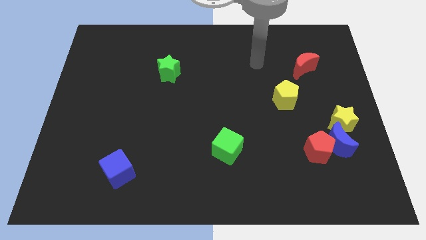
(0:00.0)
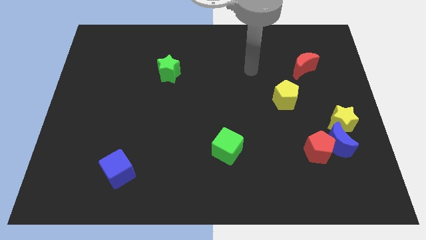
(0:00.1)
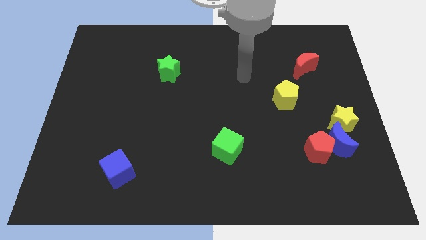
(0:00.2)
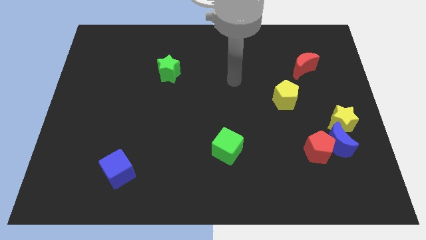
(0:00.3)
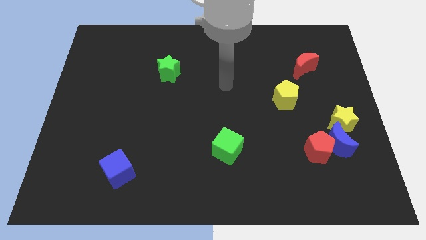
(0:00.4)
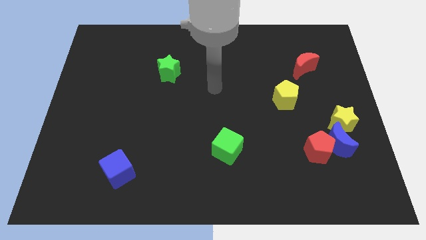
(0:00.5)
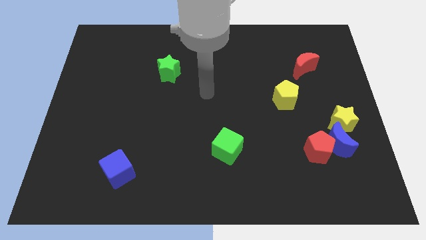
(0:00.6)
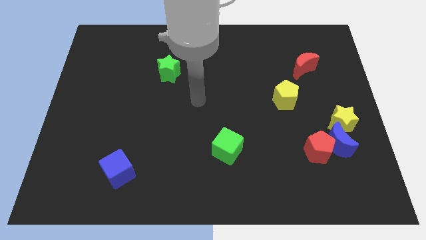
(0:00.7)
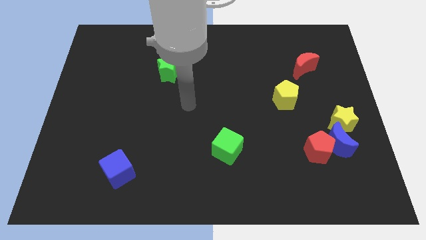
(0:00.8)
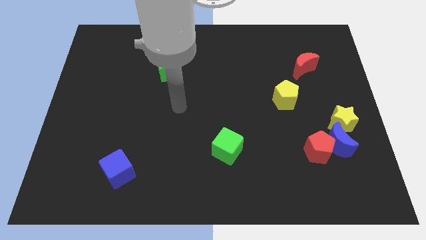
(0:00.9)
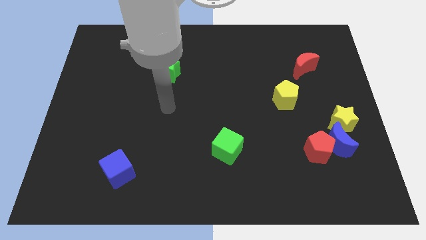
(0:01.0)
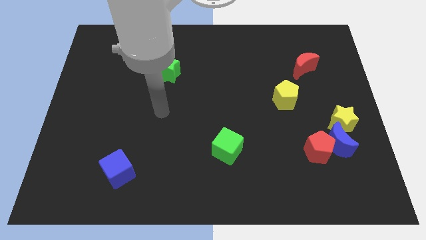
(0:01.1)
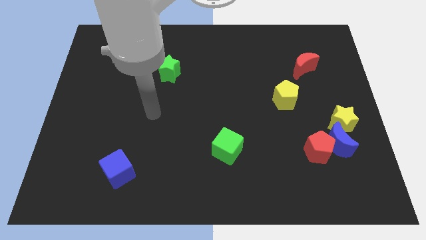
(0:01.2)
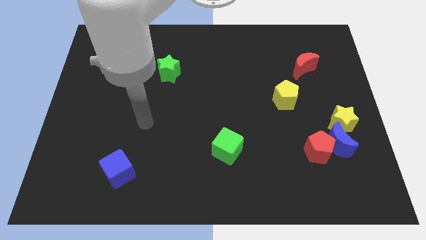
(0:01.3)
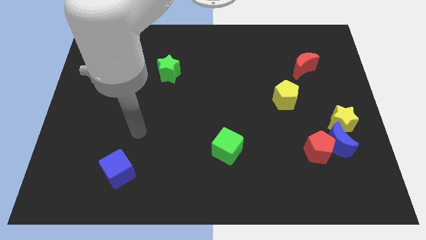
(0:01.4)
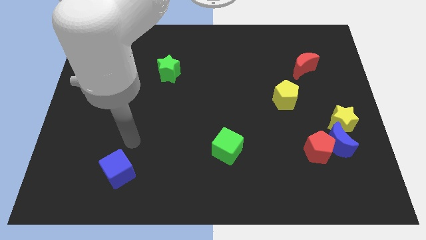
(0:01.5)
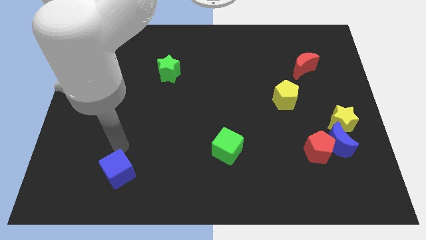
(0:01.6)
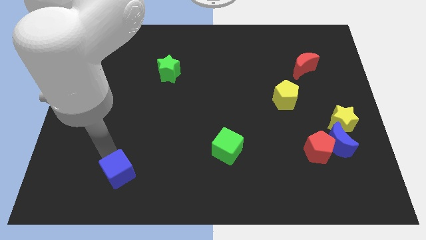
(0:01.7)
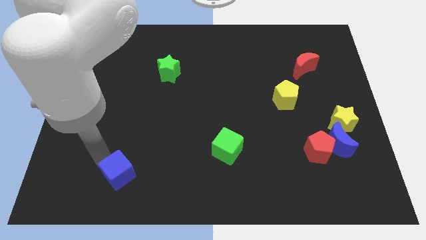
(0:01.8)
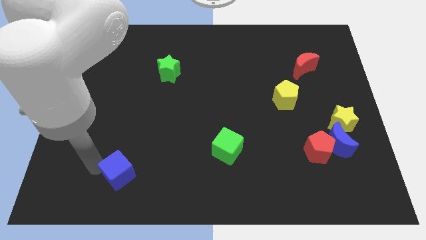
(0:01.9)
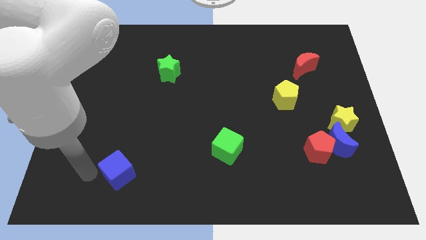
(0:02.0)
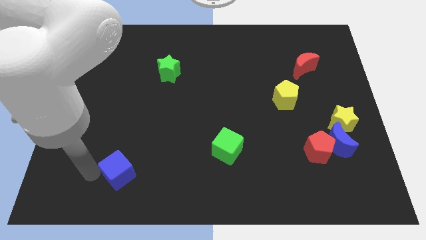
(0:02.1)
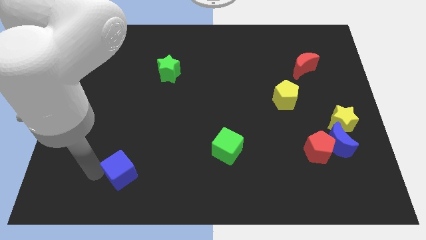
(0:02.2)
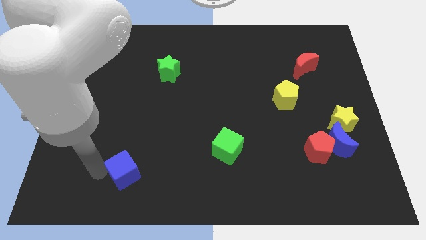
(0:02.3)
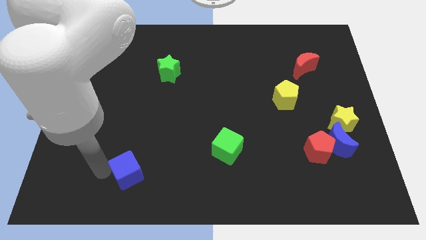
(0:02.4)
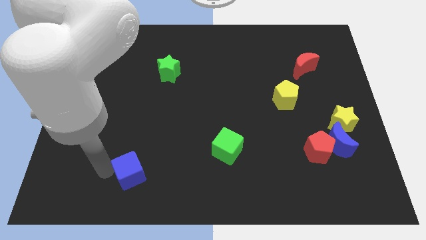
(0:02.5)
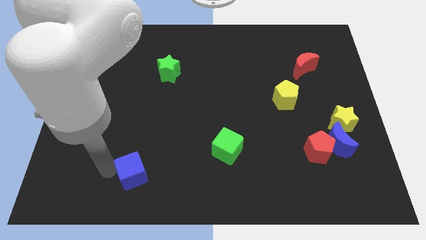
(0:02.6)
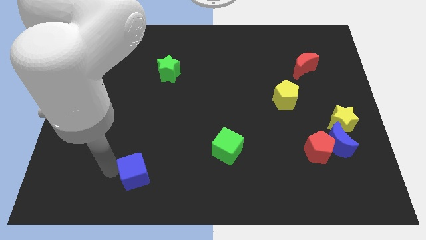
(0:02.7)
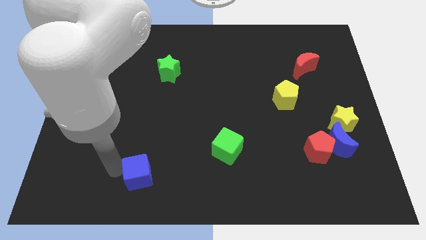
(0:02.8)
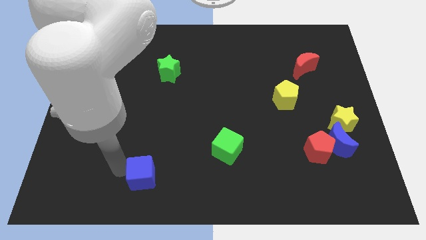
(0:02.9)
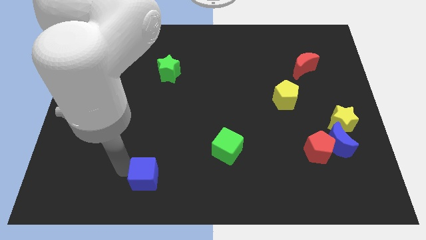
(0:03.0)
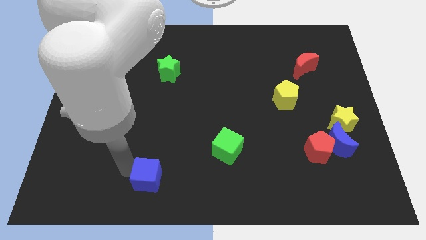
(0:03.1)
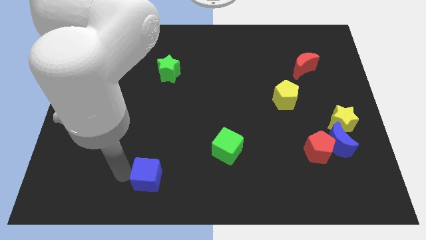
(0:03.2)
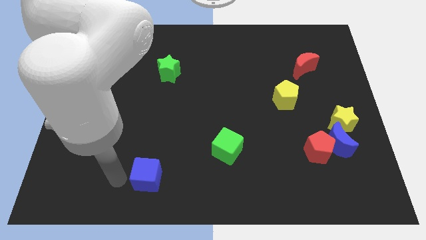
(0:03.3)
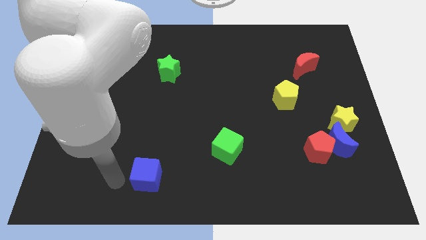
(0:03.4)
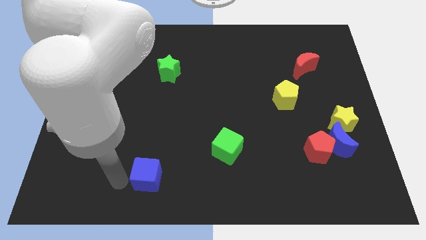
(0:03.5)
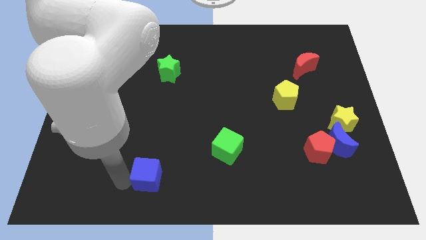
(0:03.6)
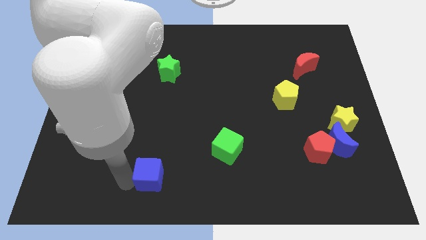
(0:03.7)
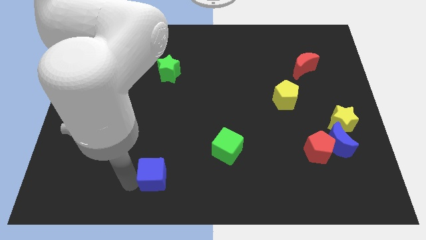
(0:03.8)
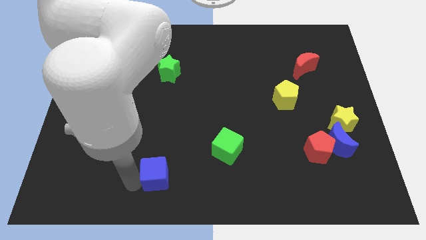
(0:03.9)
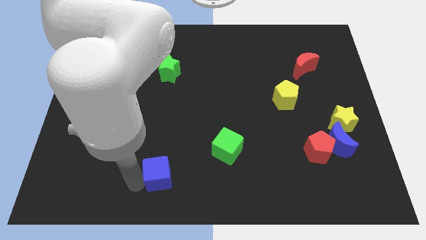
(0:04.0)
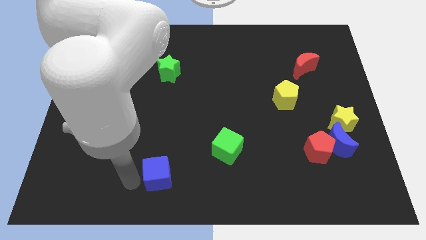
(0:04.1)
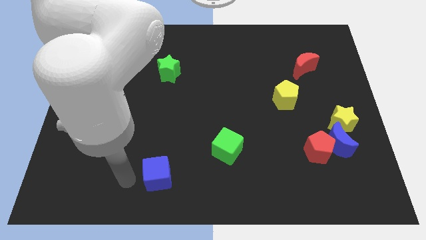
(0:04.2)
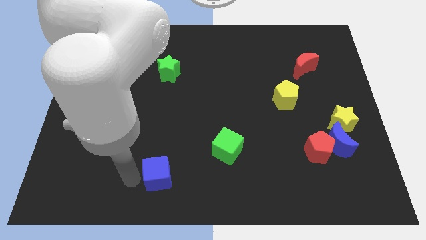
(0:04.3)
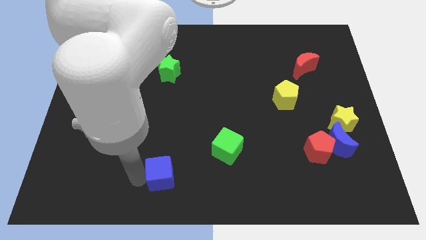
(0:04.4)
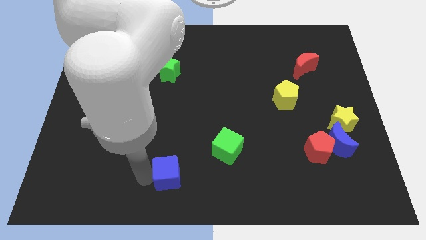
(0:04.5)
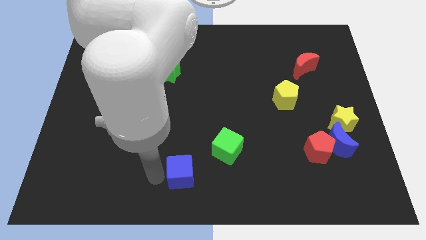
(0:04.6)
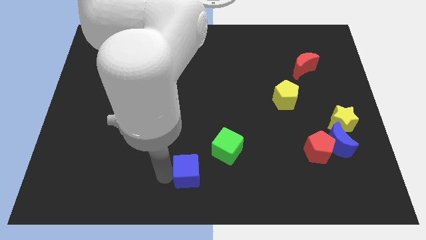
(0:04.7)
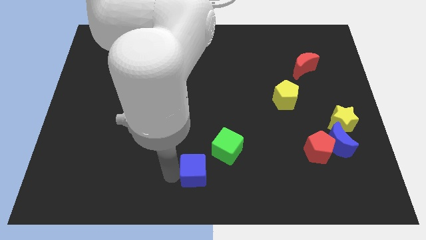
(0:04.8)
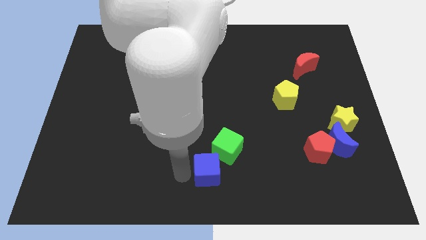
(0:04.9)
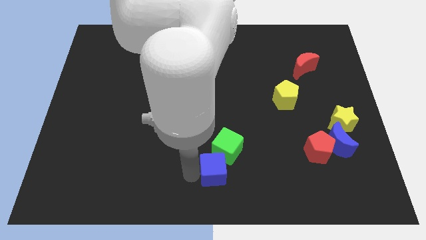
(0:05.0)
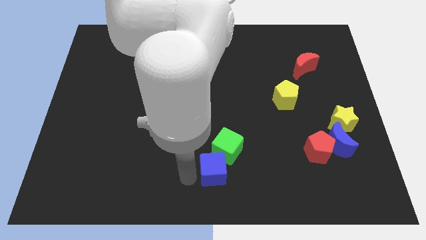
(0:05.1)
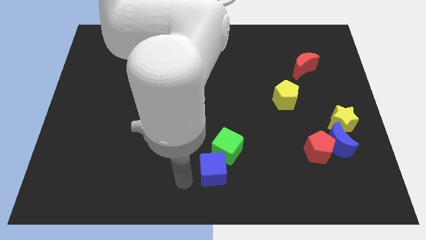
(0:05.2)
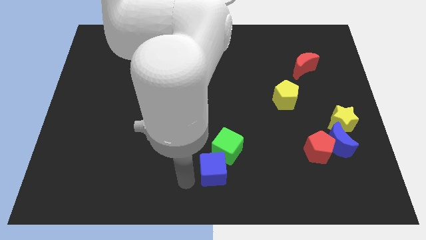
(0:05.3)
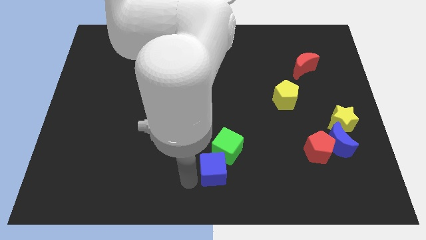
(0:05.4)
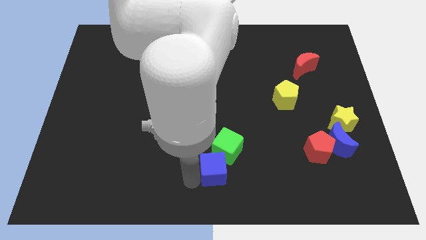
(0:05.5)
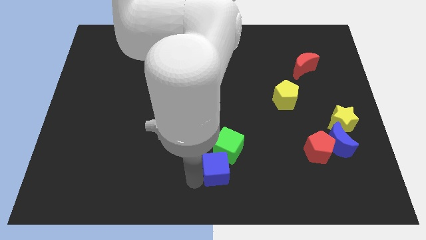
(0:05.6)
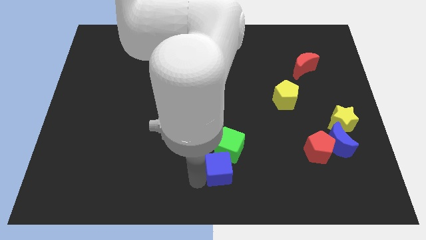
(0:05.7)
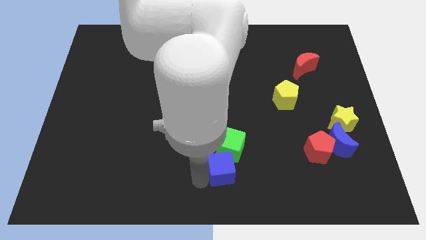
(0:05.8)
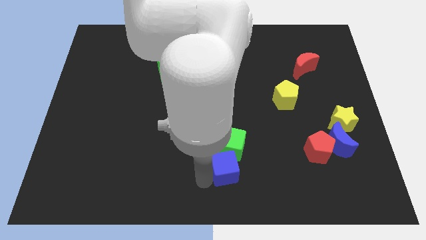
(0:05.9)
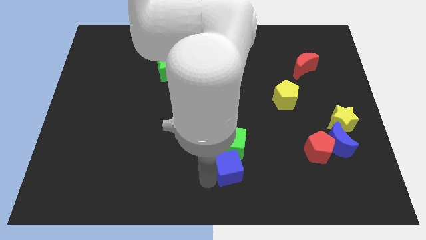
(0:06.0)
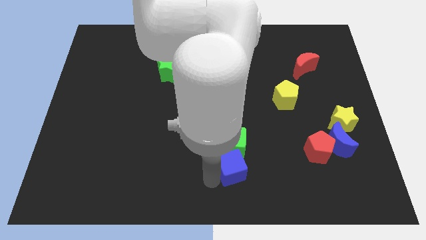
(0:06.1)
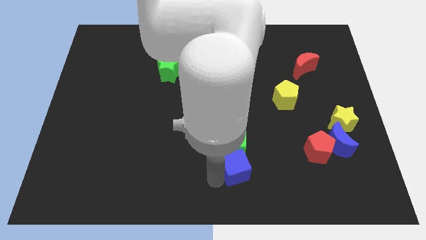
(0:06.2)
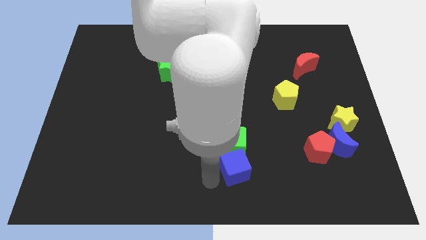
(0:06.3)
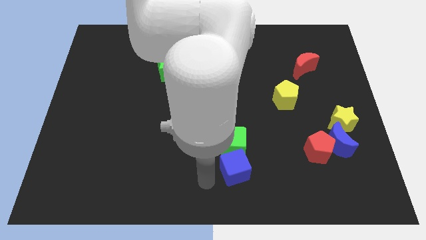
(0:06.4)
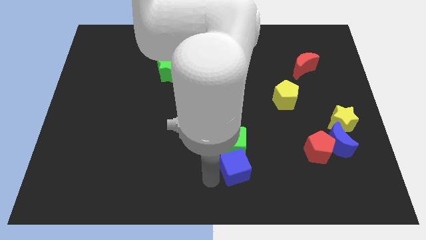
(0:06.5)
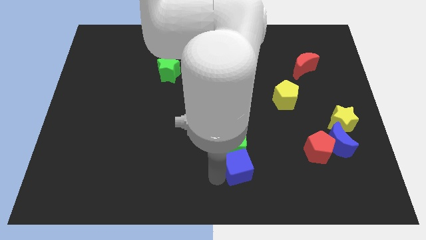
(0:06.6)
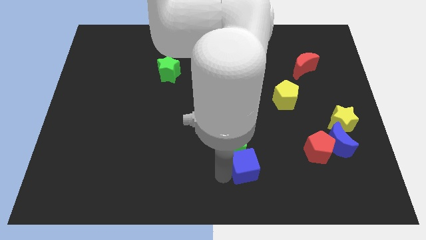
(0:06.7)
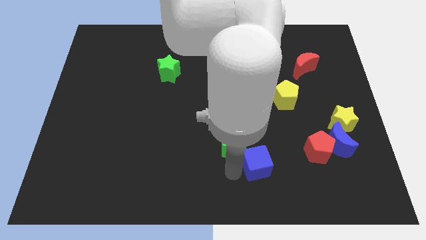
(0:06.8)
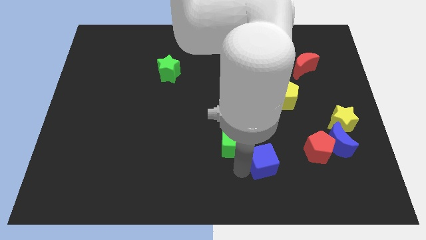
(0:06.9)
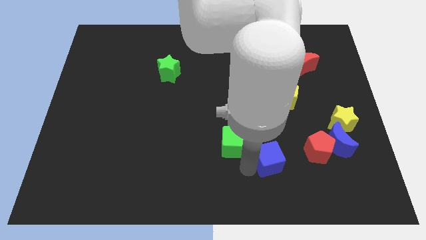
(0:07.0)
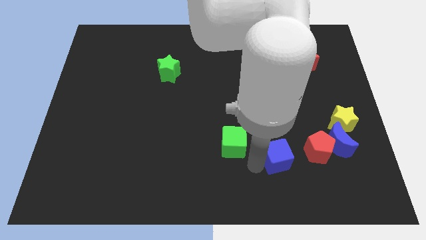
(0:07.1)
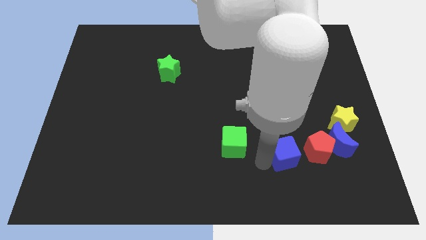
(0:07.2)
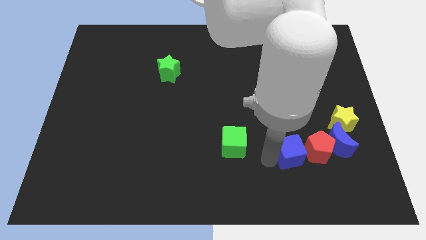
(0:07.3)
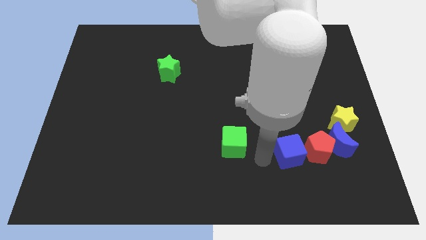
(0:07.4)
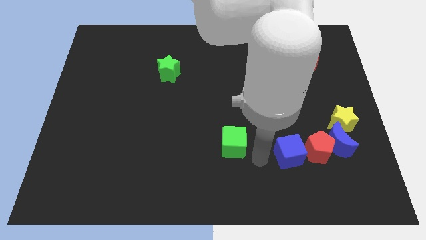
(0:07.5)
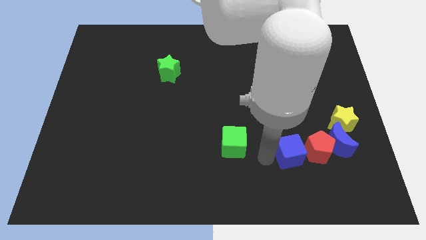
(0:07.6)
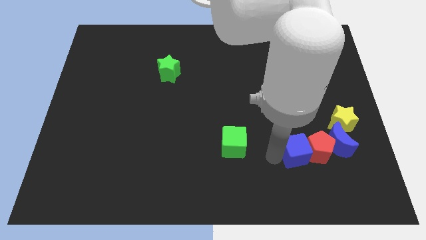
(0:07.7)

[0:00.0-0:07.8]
slide the blue cube to the red pentagon
